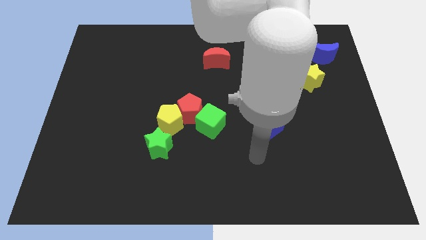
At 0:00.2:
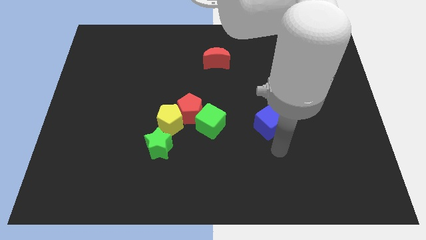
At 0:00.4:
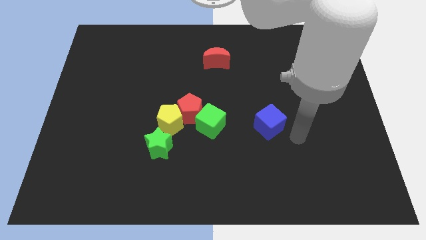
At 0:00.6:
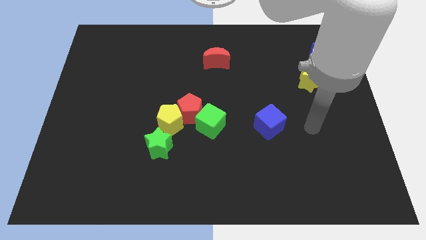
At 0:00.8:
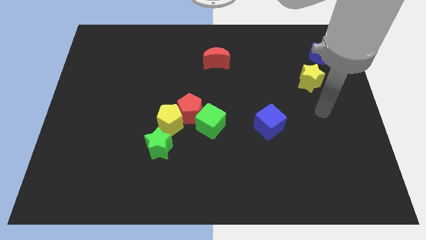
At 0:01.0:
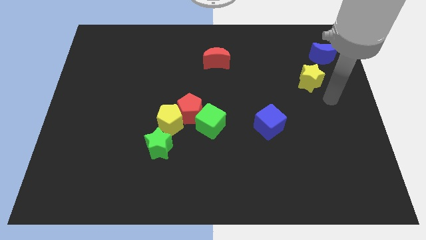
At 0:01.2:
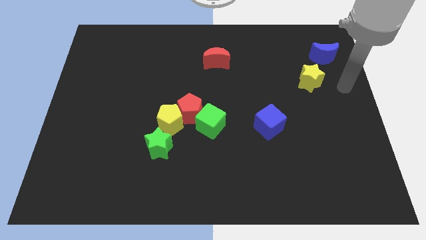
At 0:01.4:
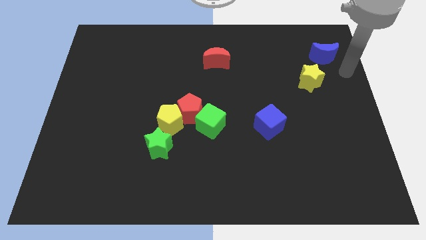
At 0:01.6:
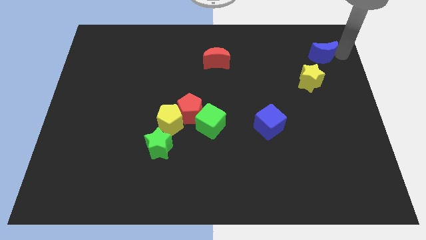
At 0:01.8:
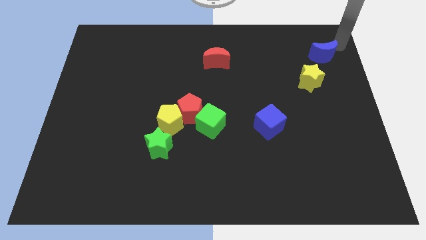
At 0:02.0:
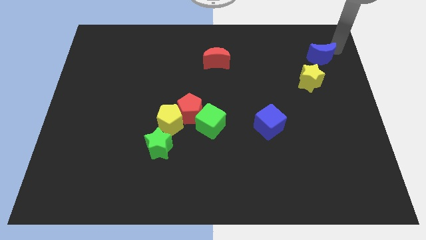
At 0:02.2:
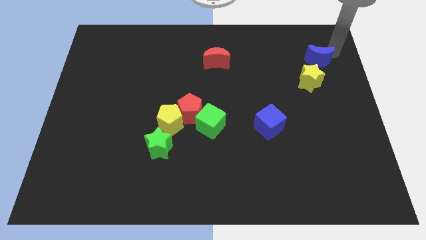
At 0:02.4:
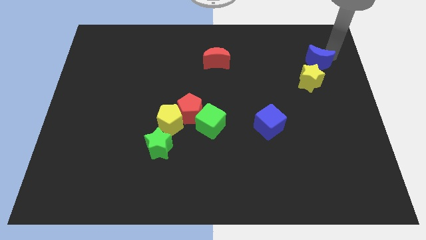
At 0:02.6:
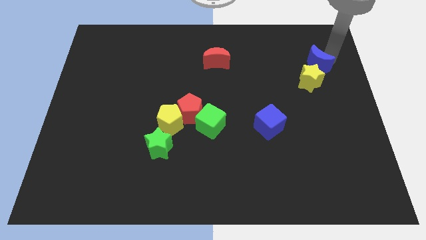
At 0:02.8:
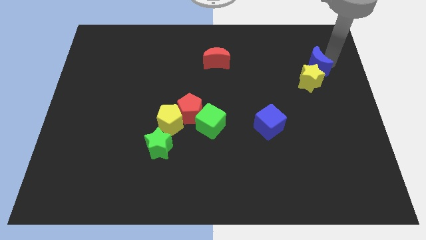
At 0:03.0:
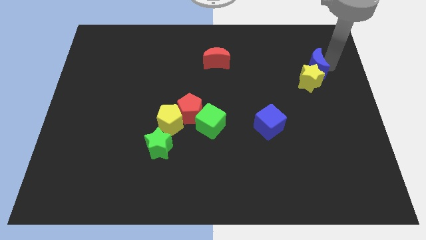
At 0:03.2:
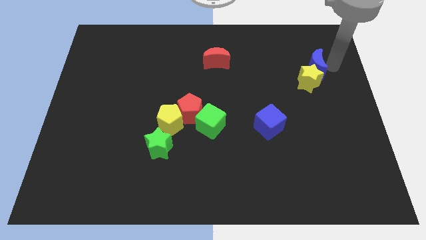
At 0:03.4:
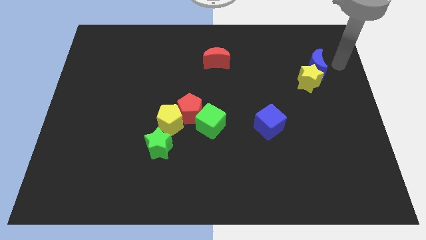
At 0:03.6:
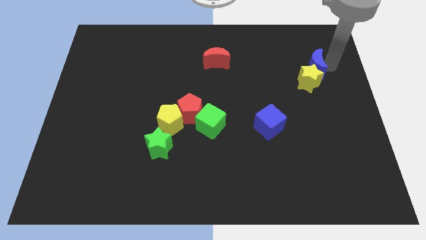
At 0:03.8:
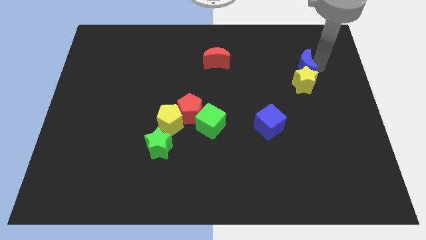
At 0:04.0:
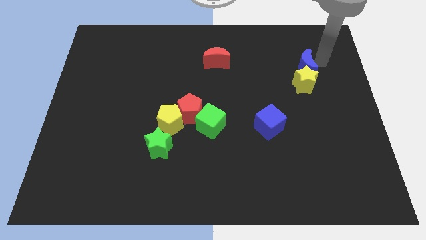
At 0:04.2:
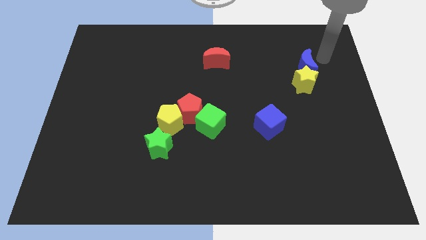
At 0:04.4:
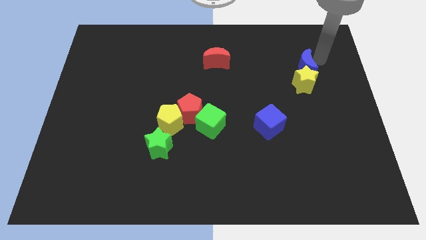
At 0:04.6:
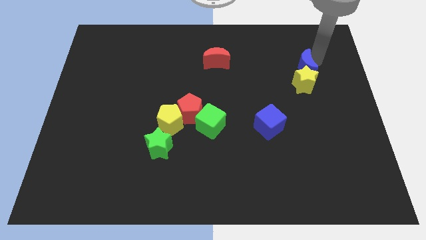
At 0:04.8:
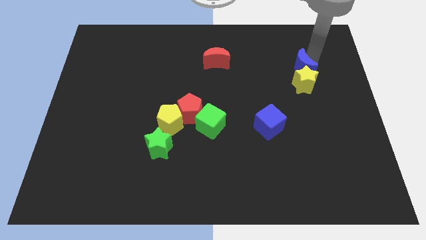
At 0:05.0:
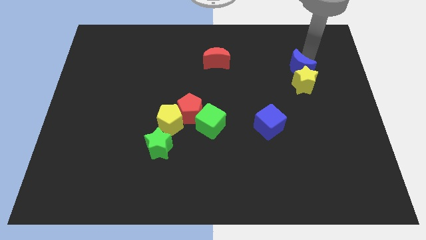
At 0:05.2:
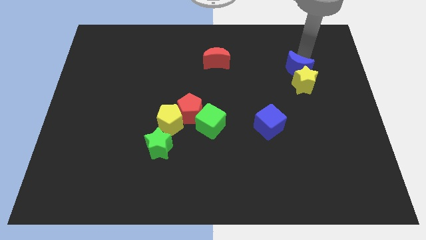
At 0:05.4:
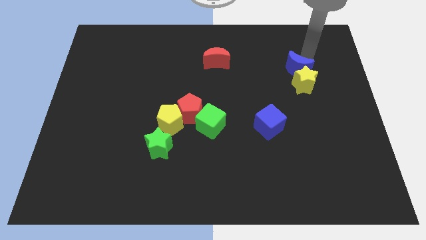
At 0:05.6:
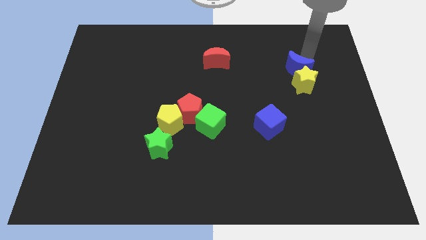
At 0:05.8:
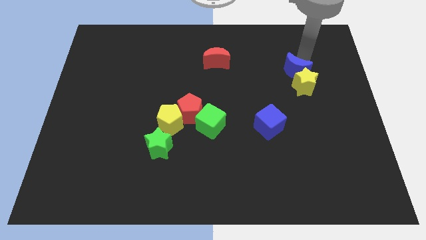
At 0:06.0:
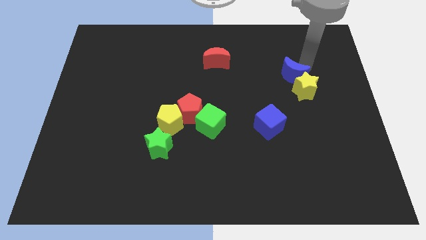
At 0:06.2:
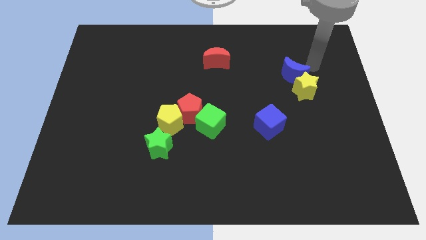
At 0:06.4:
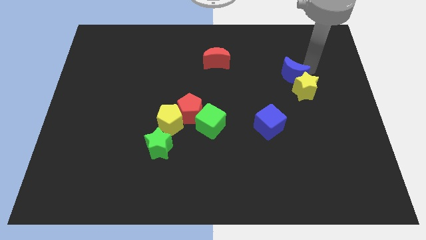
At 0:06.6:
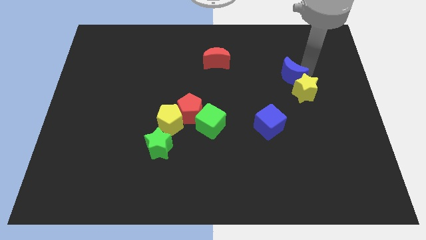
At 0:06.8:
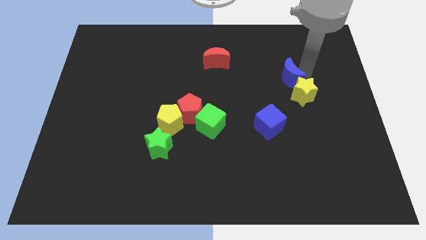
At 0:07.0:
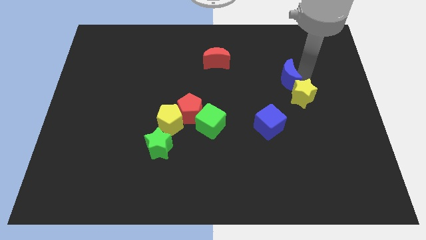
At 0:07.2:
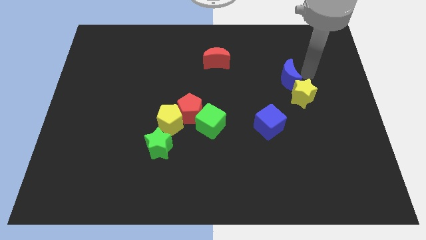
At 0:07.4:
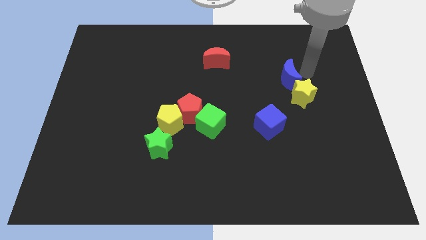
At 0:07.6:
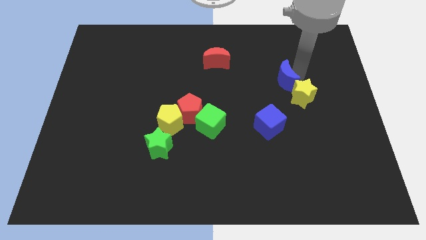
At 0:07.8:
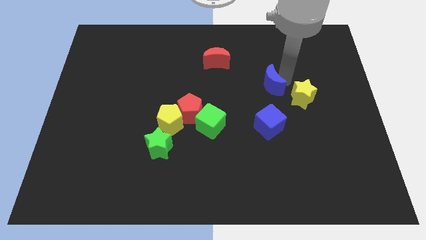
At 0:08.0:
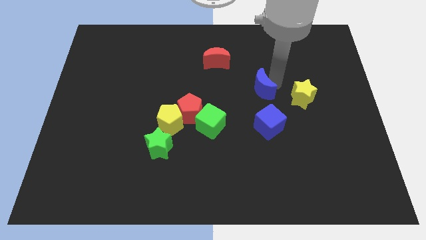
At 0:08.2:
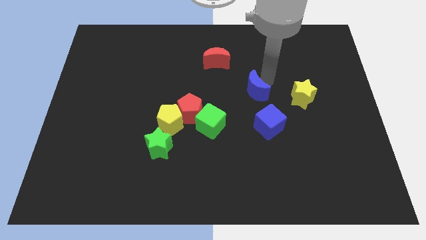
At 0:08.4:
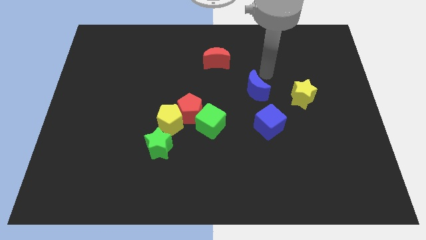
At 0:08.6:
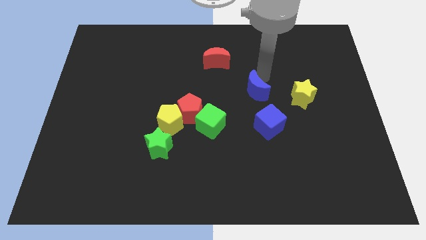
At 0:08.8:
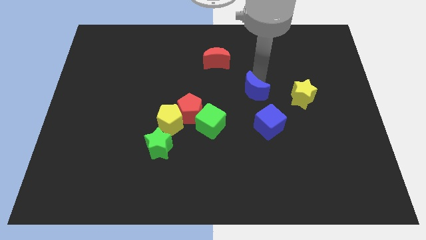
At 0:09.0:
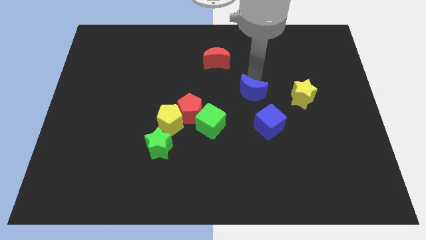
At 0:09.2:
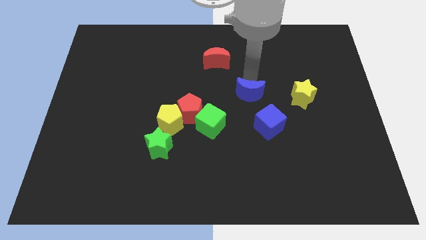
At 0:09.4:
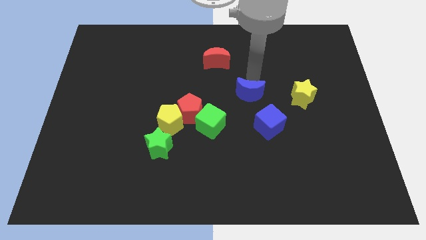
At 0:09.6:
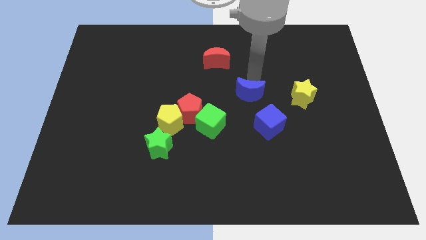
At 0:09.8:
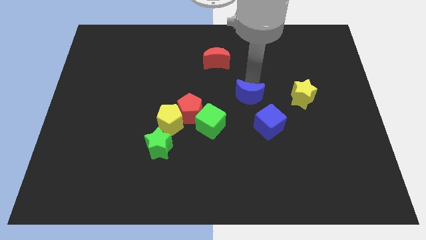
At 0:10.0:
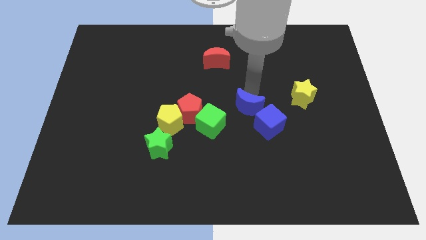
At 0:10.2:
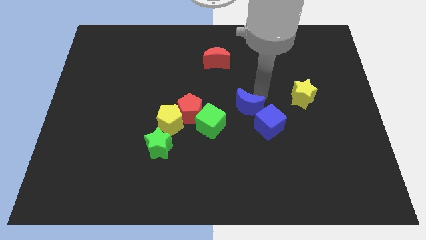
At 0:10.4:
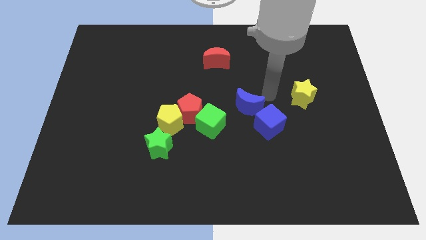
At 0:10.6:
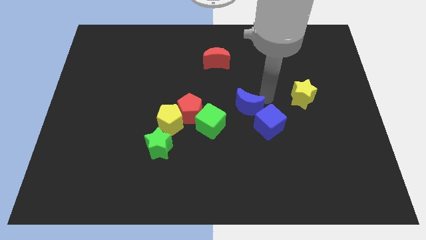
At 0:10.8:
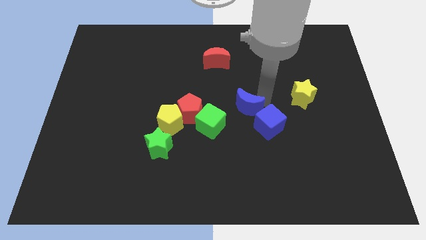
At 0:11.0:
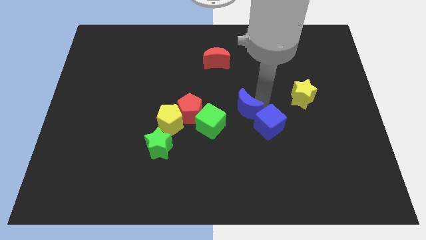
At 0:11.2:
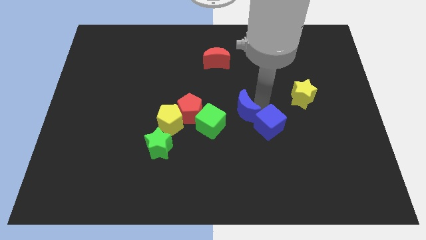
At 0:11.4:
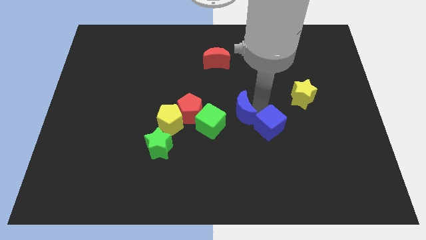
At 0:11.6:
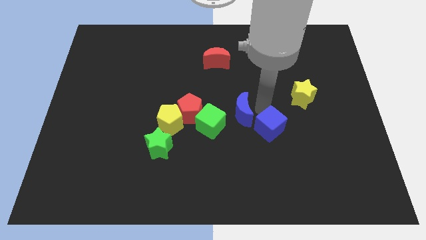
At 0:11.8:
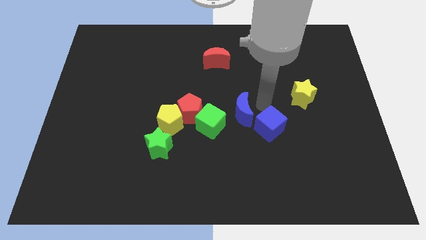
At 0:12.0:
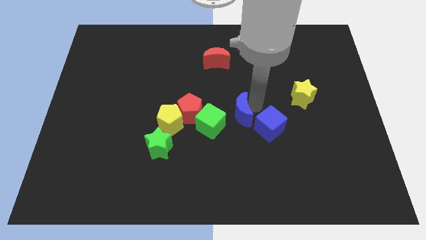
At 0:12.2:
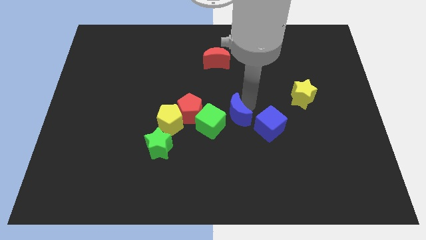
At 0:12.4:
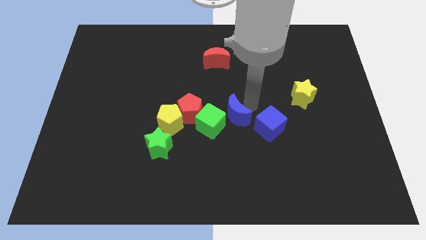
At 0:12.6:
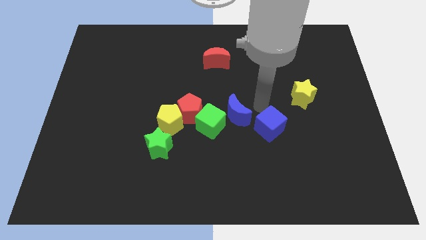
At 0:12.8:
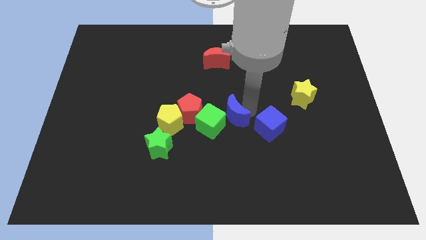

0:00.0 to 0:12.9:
slide the blue moon next to the green cube
